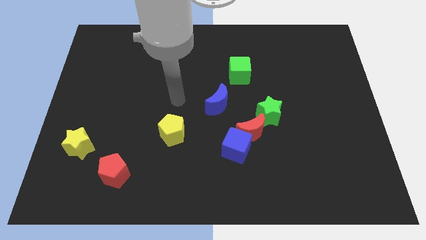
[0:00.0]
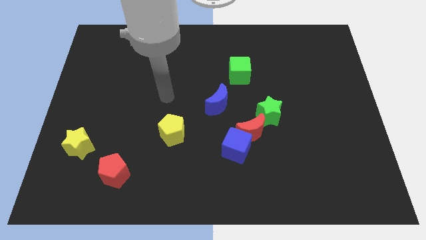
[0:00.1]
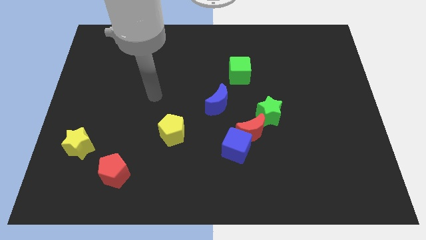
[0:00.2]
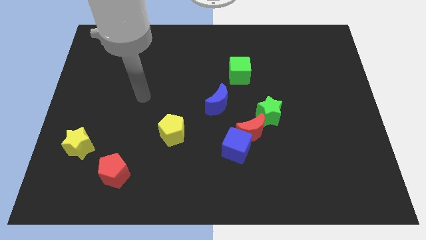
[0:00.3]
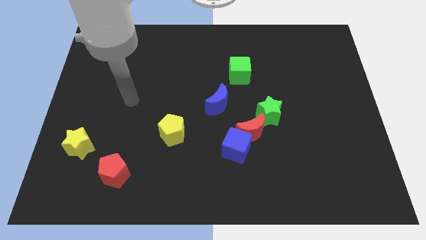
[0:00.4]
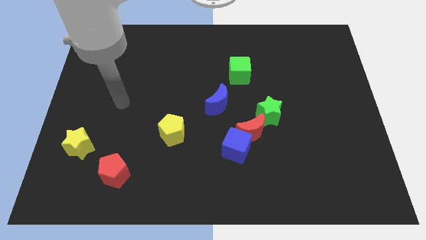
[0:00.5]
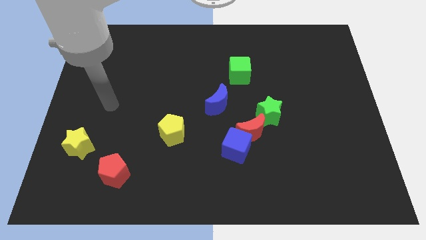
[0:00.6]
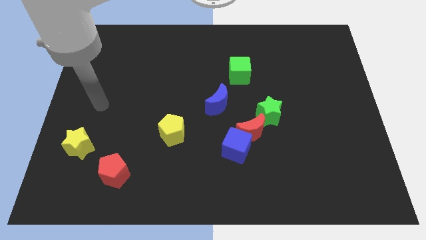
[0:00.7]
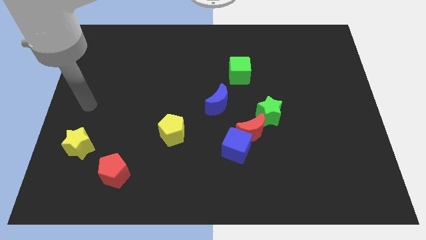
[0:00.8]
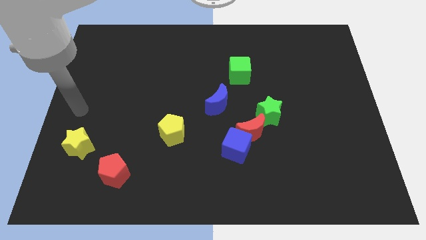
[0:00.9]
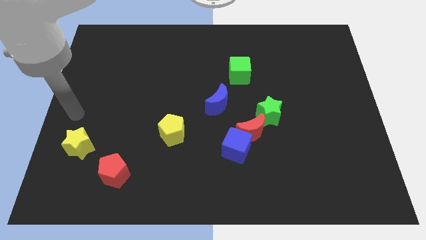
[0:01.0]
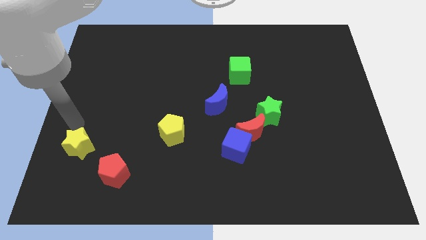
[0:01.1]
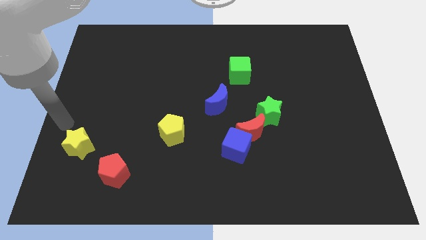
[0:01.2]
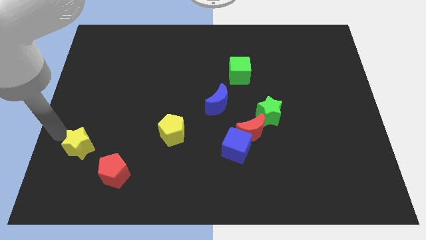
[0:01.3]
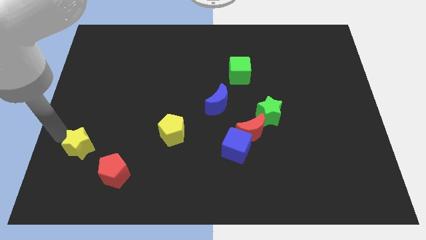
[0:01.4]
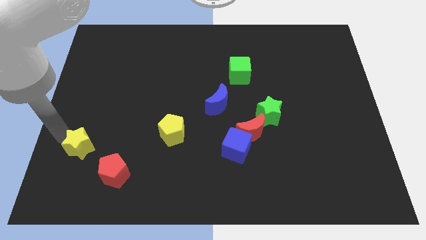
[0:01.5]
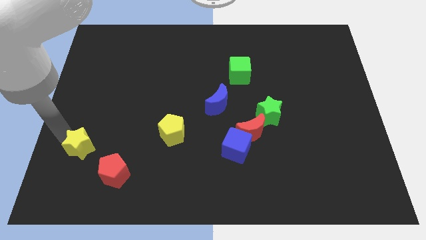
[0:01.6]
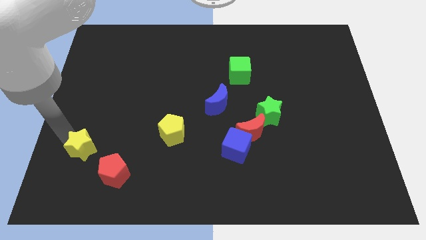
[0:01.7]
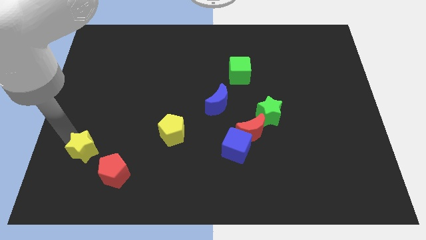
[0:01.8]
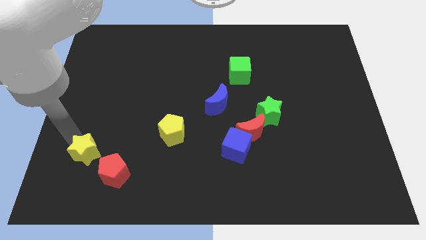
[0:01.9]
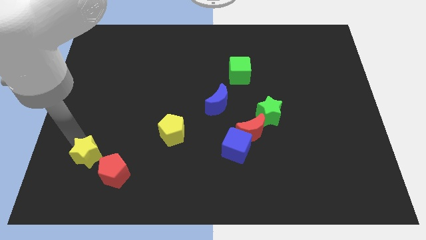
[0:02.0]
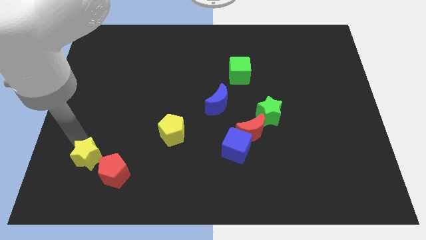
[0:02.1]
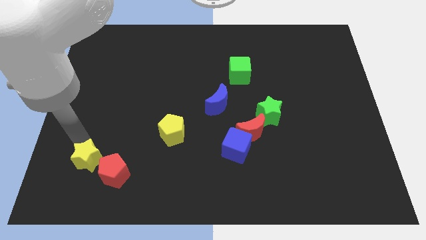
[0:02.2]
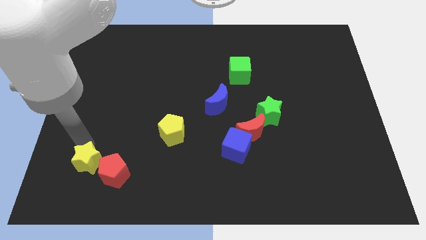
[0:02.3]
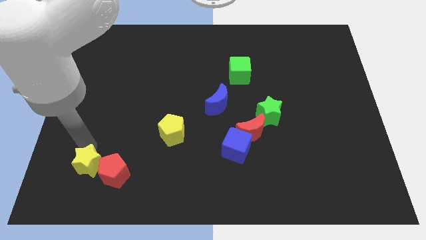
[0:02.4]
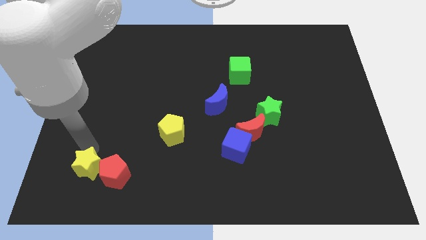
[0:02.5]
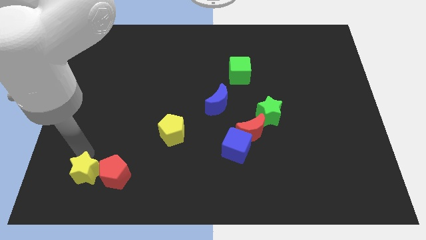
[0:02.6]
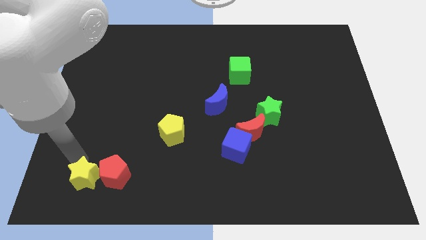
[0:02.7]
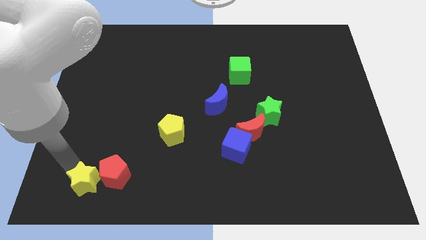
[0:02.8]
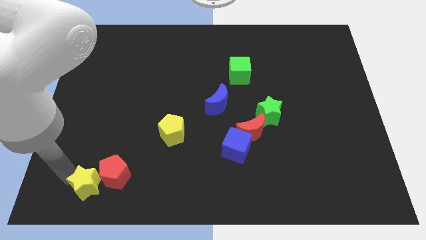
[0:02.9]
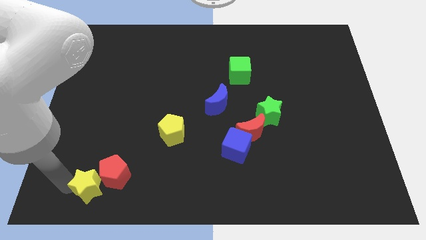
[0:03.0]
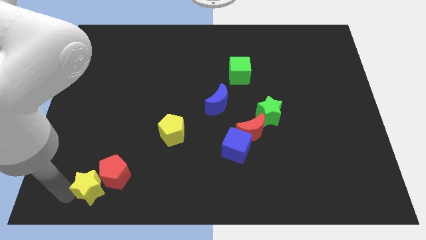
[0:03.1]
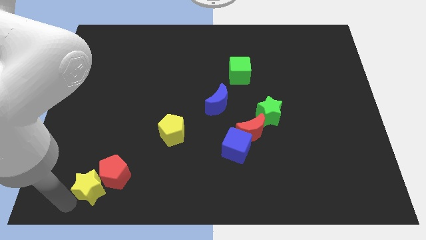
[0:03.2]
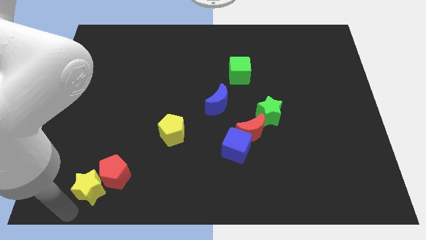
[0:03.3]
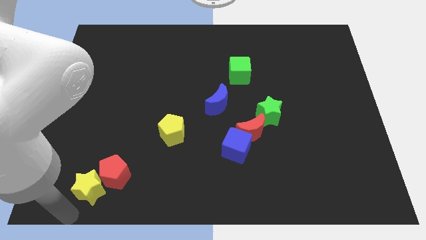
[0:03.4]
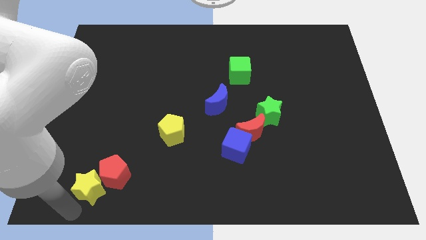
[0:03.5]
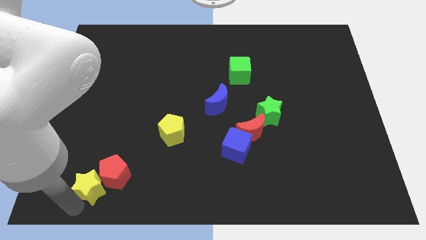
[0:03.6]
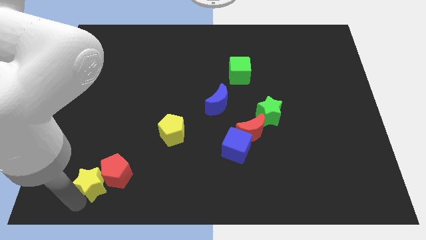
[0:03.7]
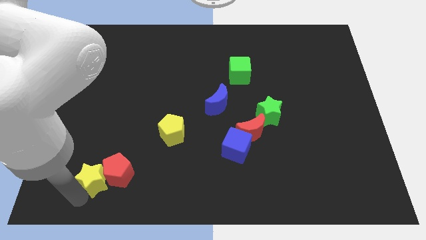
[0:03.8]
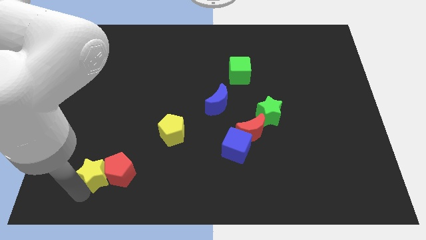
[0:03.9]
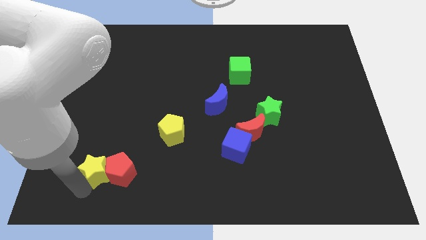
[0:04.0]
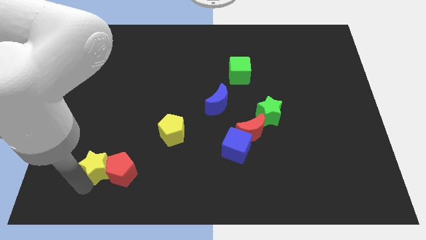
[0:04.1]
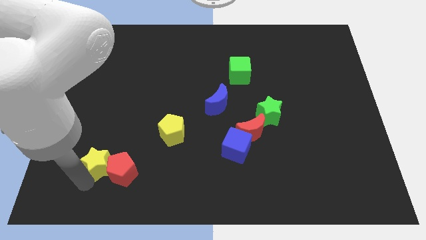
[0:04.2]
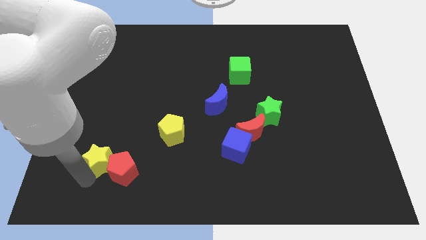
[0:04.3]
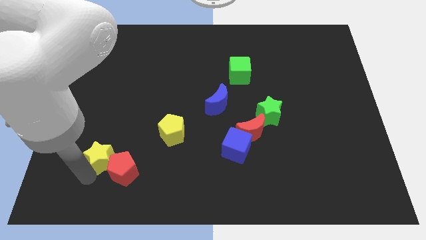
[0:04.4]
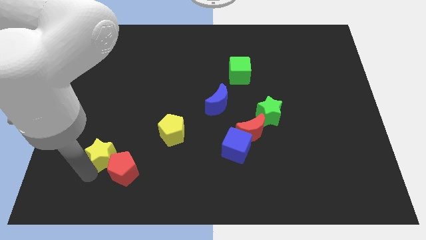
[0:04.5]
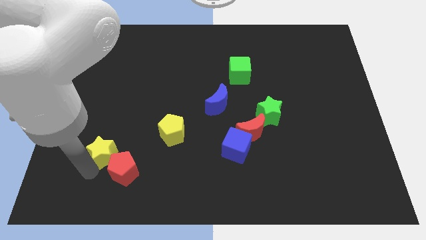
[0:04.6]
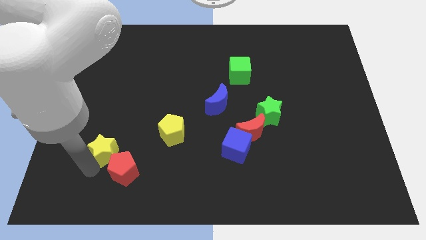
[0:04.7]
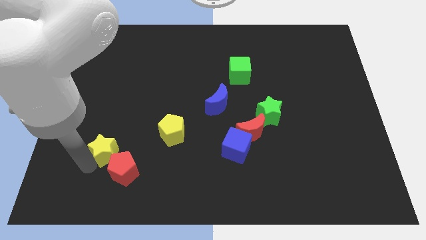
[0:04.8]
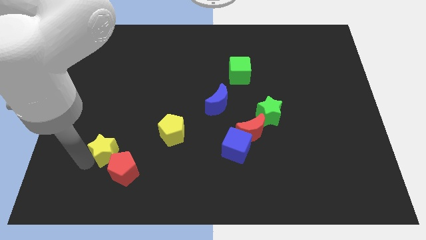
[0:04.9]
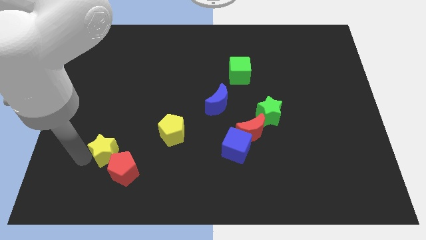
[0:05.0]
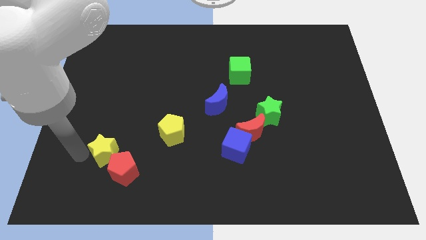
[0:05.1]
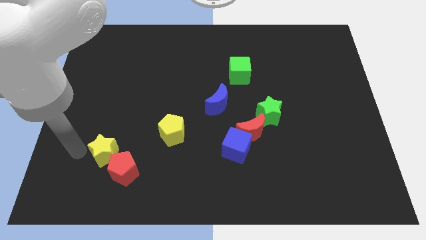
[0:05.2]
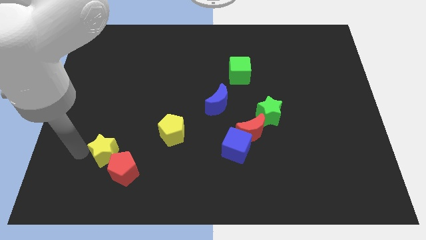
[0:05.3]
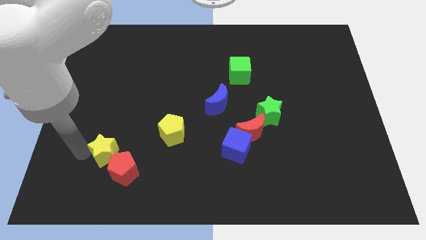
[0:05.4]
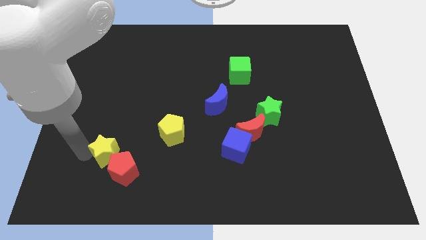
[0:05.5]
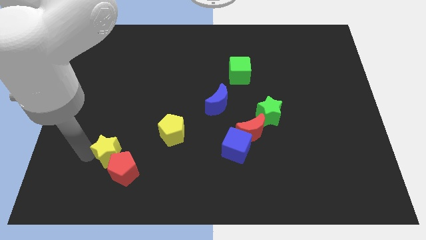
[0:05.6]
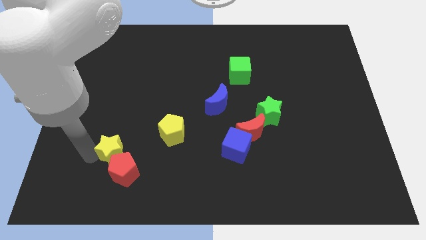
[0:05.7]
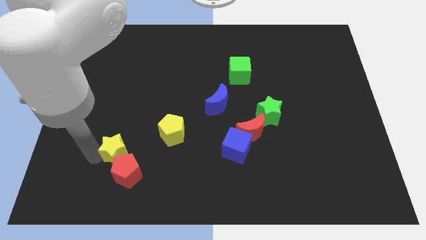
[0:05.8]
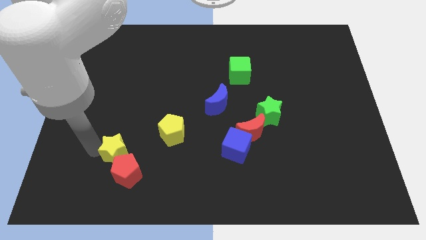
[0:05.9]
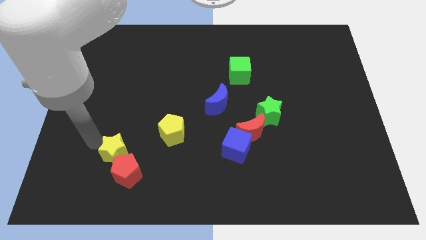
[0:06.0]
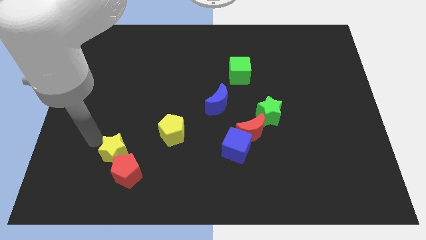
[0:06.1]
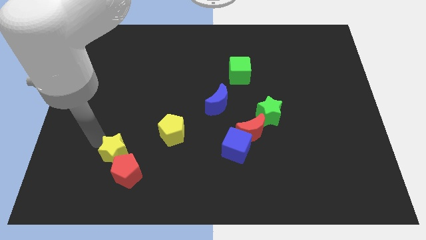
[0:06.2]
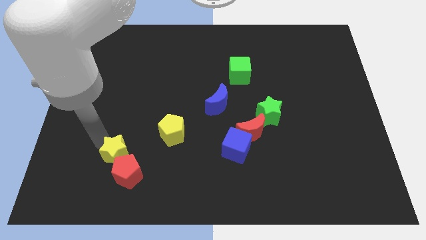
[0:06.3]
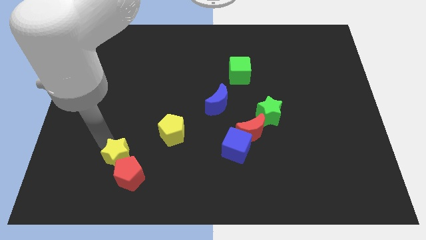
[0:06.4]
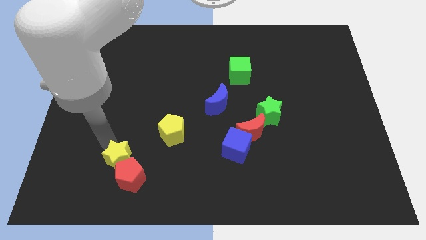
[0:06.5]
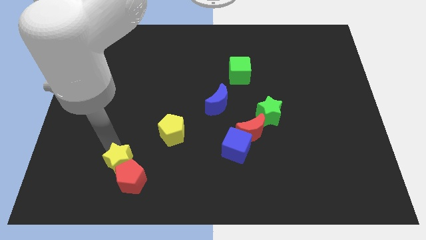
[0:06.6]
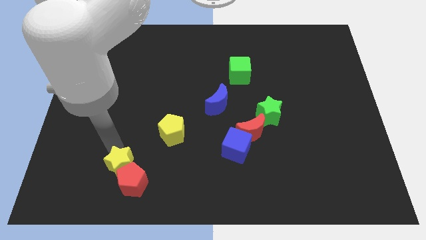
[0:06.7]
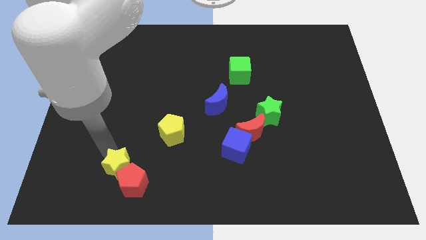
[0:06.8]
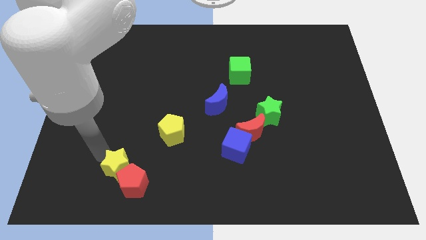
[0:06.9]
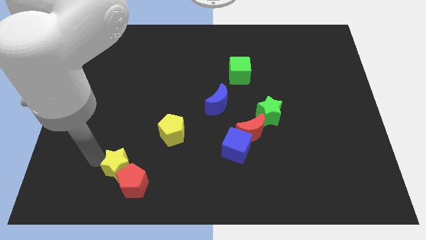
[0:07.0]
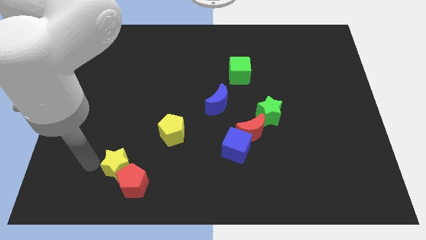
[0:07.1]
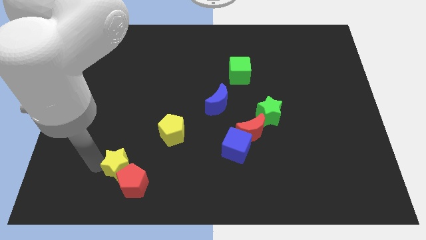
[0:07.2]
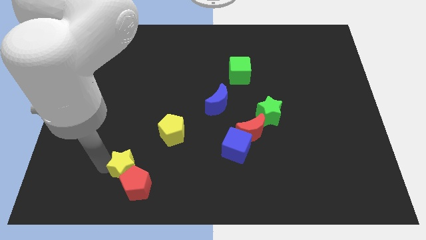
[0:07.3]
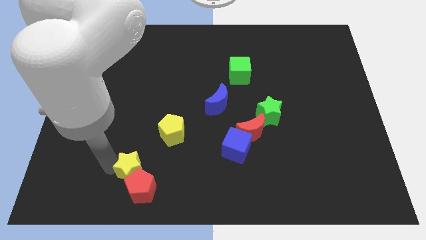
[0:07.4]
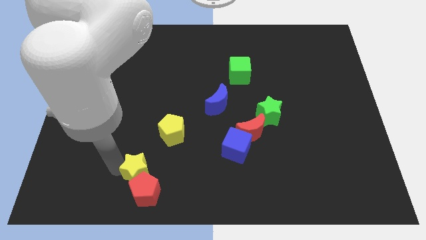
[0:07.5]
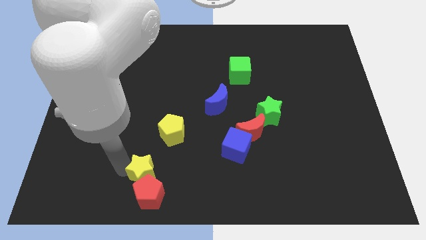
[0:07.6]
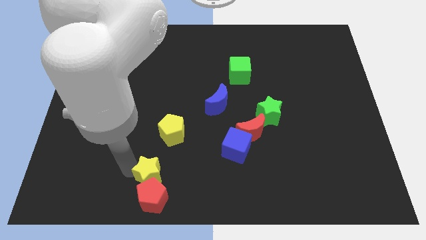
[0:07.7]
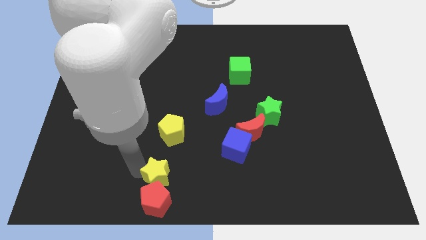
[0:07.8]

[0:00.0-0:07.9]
put the yellow star to the bottom
